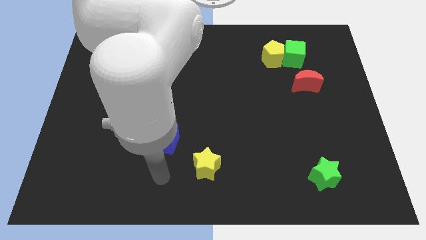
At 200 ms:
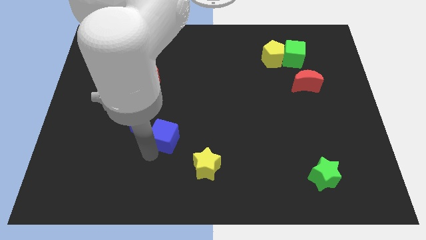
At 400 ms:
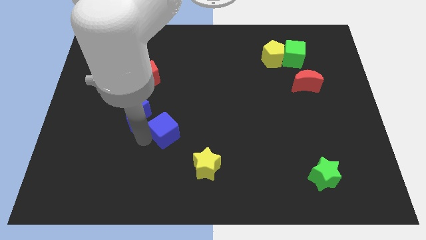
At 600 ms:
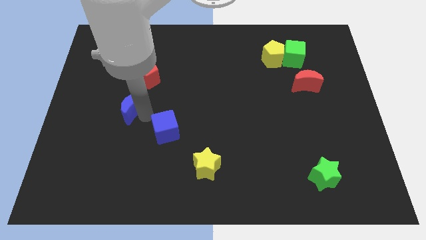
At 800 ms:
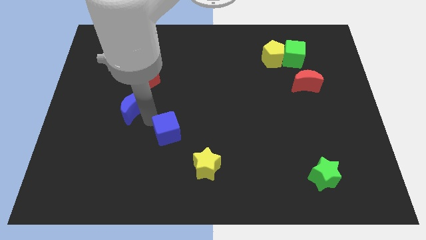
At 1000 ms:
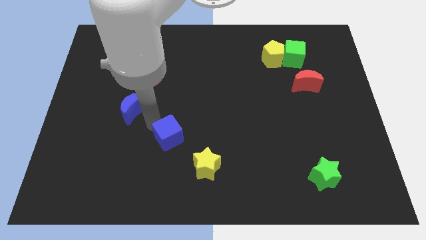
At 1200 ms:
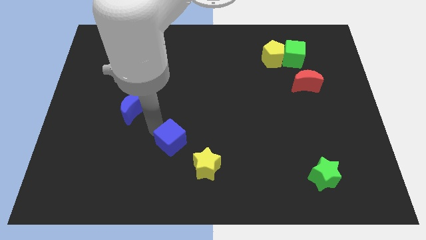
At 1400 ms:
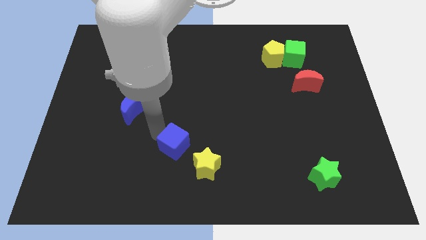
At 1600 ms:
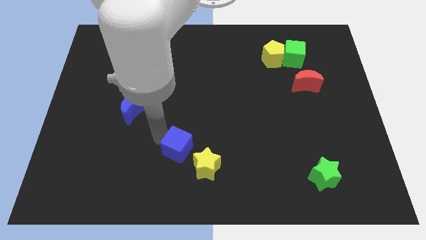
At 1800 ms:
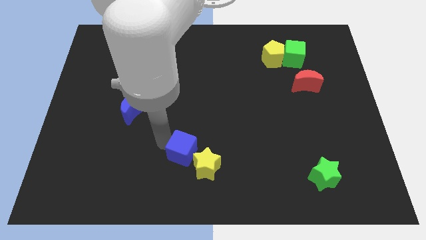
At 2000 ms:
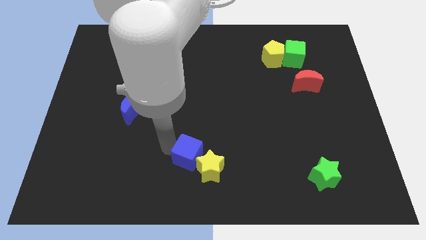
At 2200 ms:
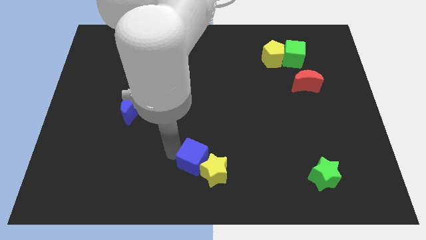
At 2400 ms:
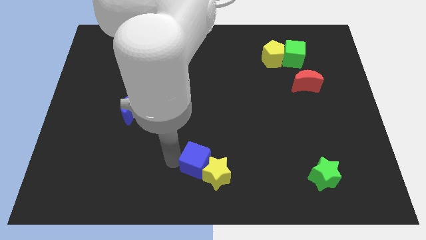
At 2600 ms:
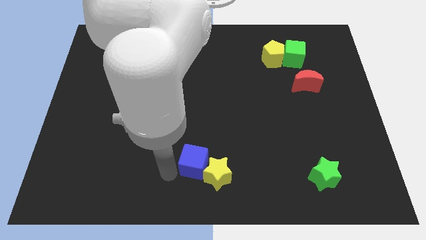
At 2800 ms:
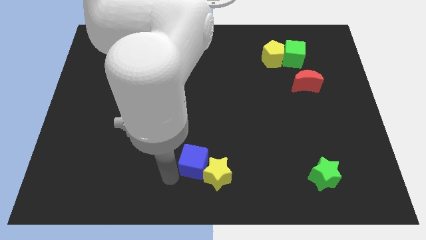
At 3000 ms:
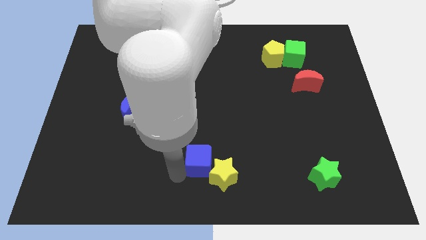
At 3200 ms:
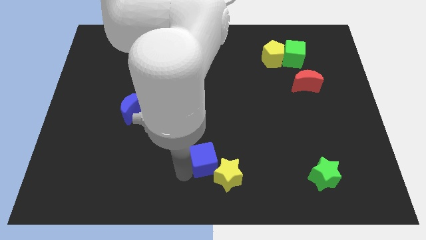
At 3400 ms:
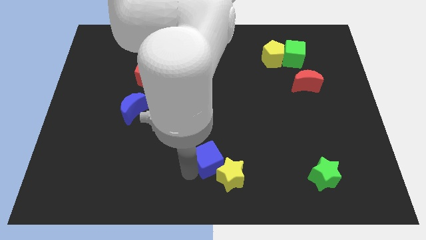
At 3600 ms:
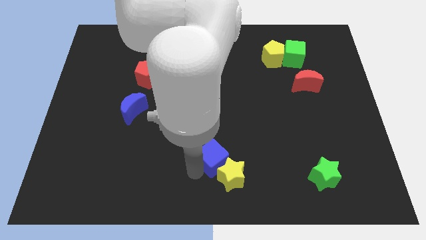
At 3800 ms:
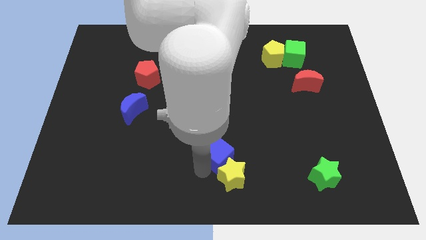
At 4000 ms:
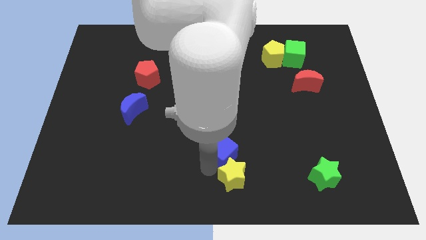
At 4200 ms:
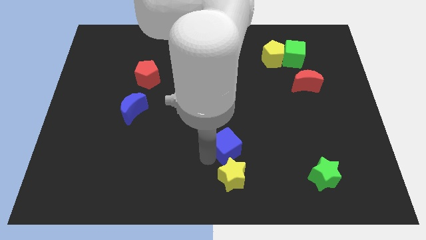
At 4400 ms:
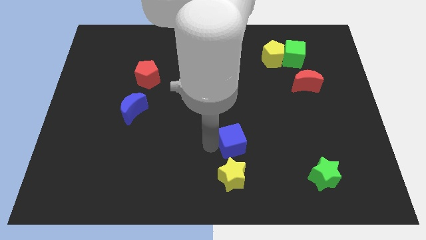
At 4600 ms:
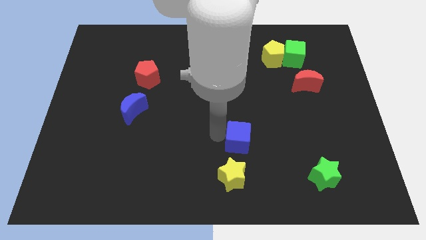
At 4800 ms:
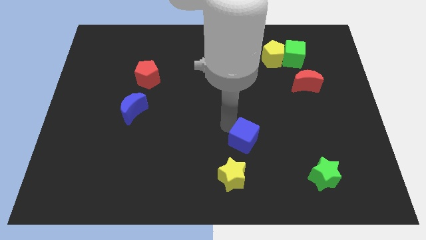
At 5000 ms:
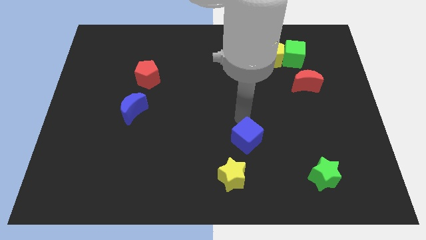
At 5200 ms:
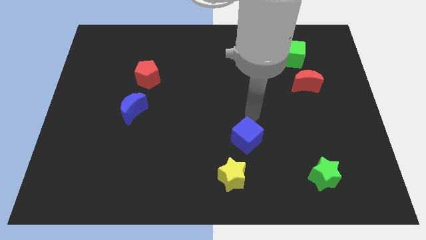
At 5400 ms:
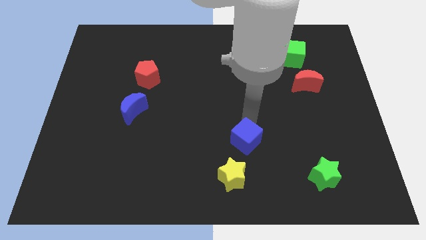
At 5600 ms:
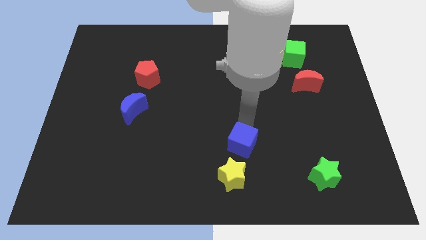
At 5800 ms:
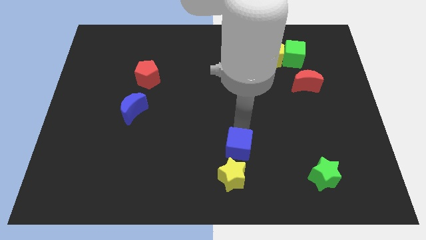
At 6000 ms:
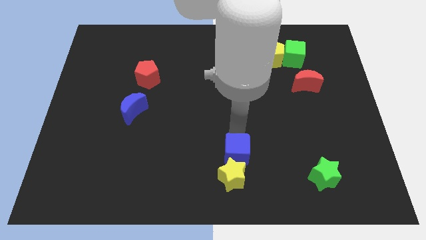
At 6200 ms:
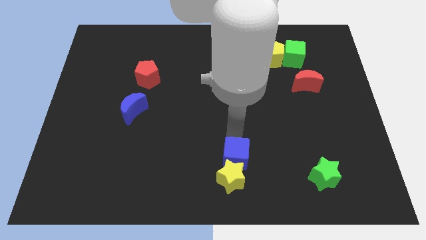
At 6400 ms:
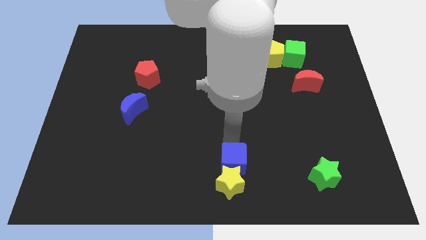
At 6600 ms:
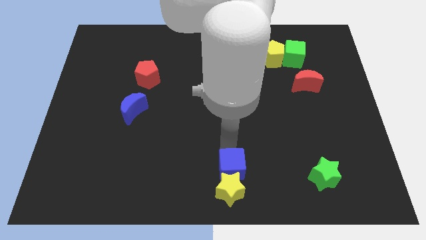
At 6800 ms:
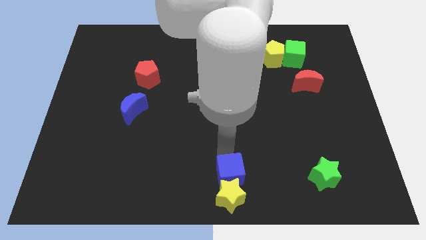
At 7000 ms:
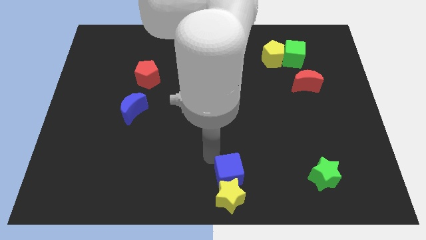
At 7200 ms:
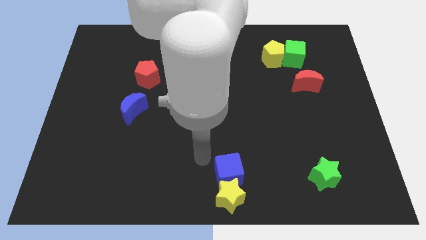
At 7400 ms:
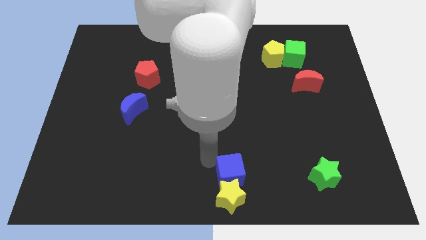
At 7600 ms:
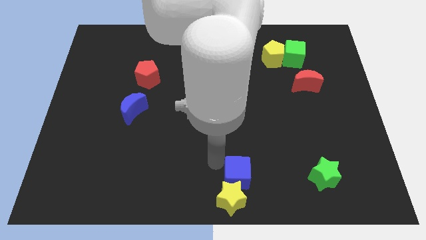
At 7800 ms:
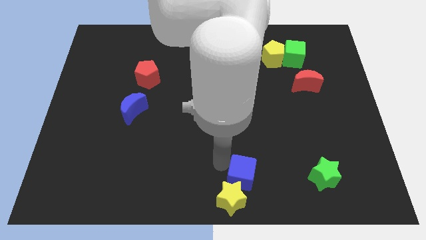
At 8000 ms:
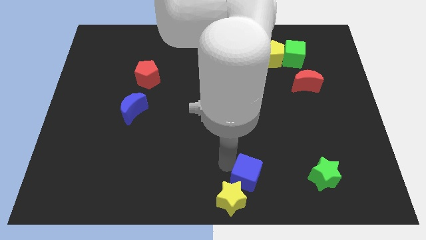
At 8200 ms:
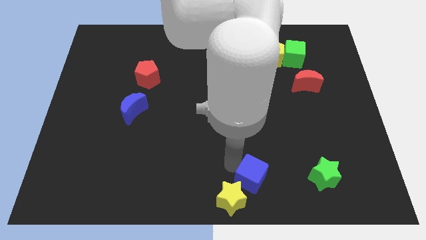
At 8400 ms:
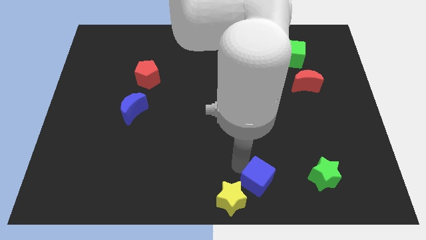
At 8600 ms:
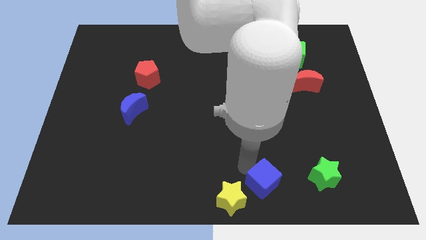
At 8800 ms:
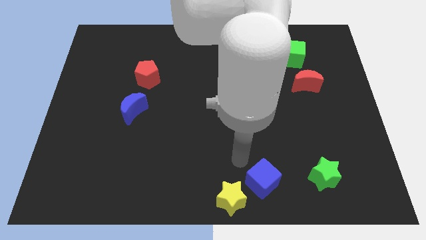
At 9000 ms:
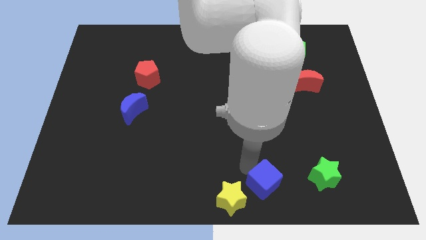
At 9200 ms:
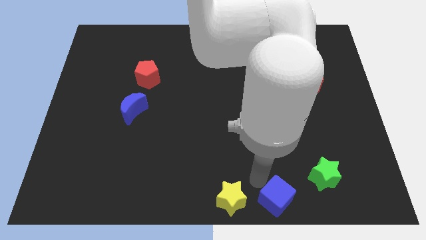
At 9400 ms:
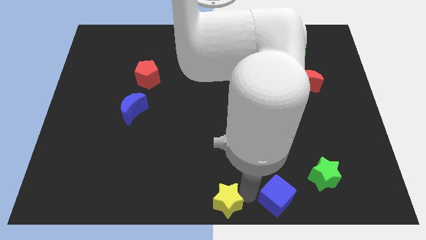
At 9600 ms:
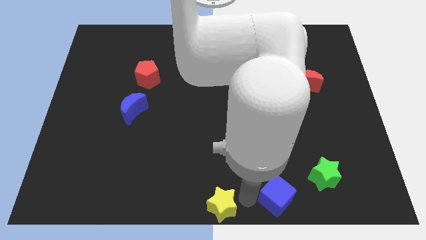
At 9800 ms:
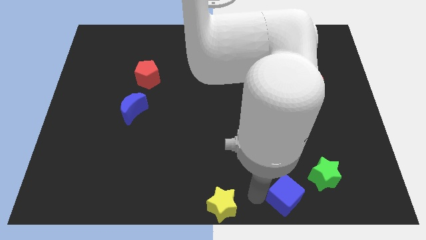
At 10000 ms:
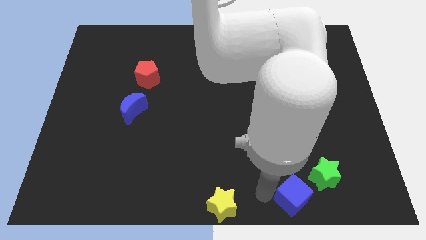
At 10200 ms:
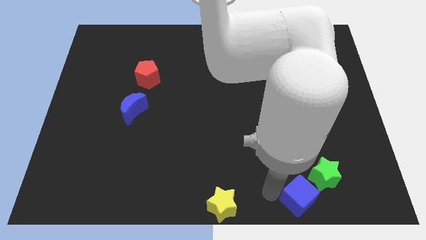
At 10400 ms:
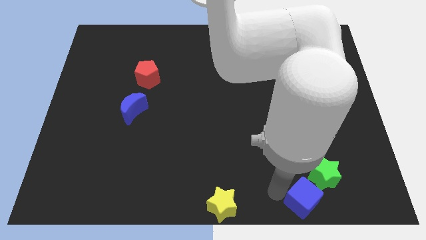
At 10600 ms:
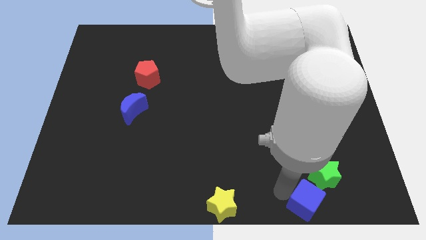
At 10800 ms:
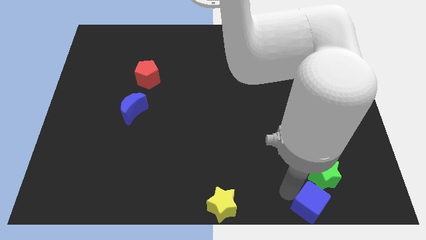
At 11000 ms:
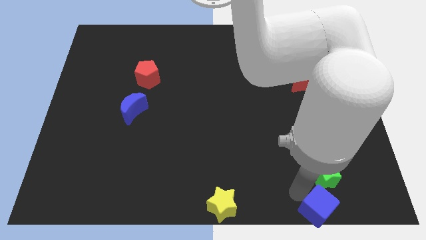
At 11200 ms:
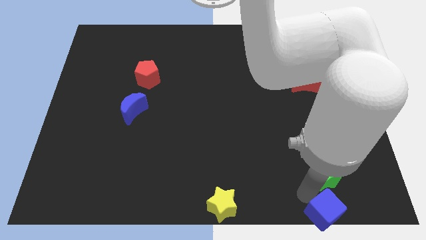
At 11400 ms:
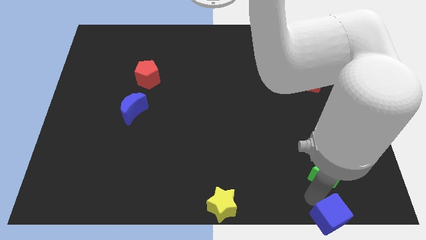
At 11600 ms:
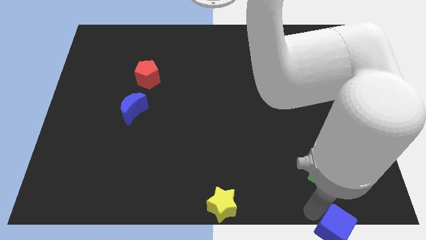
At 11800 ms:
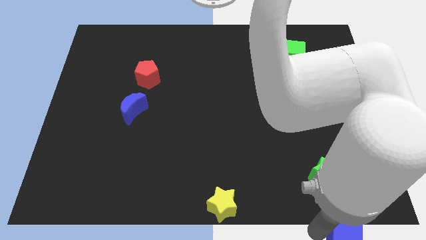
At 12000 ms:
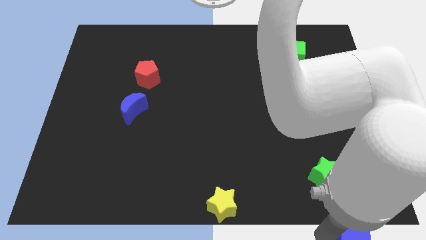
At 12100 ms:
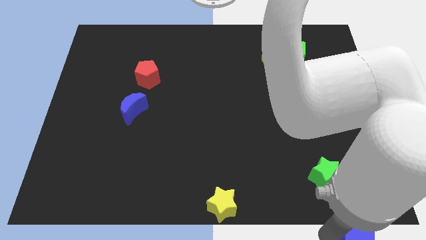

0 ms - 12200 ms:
slide the blue cube to the lower right corner
